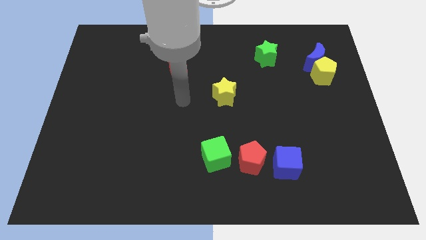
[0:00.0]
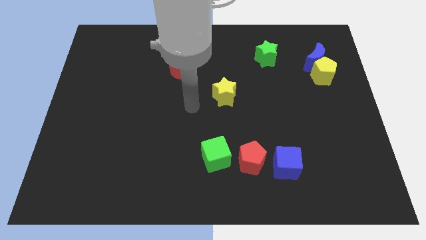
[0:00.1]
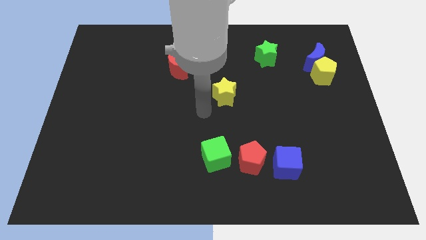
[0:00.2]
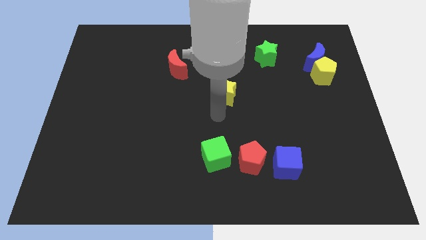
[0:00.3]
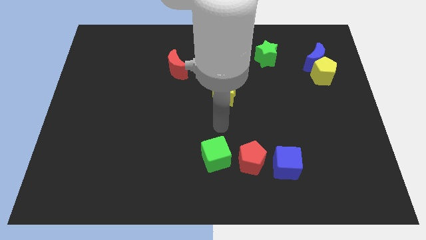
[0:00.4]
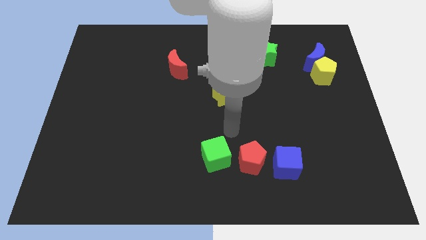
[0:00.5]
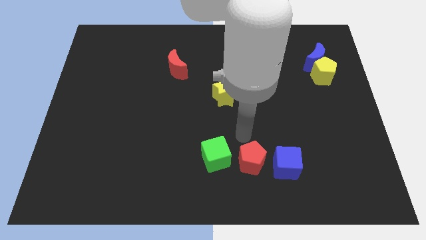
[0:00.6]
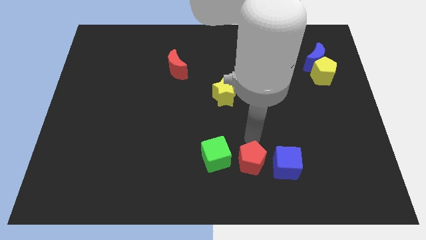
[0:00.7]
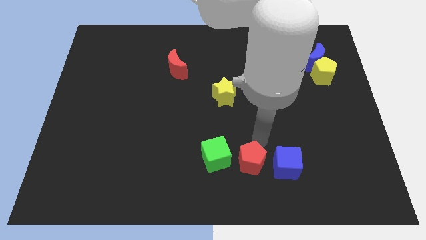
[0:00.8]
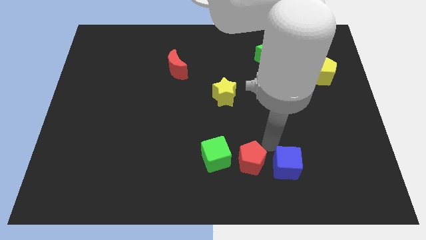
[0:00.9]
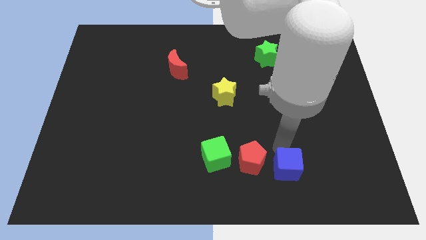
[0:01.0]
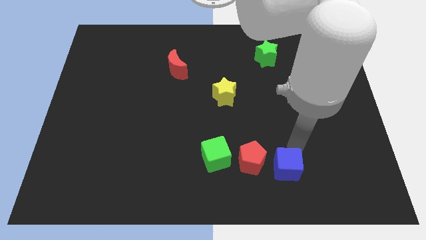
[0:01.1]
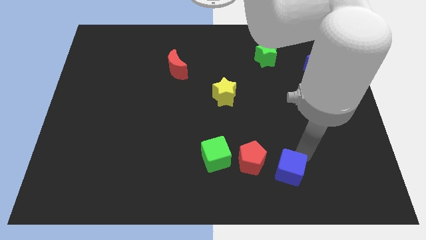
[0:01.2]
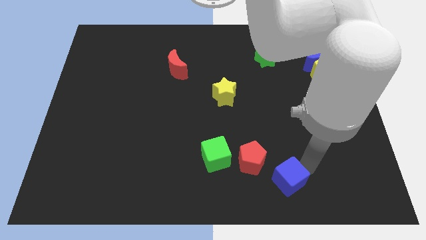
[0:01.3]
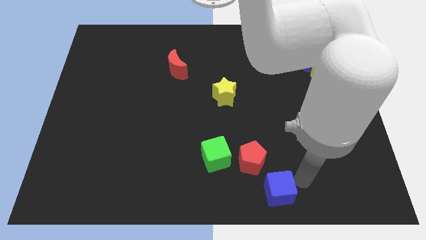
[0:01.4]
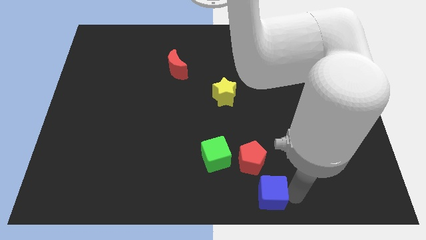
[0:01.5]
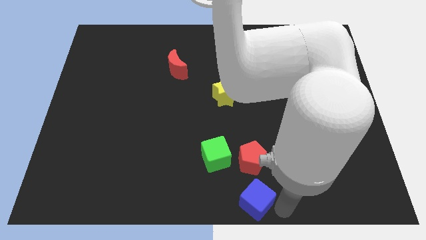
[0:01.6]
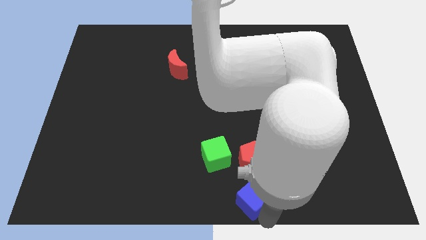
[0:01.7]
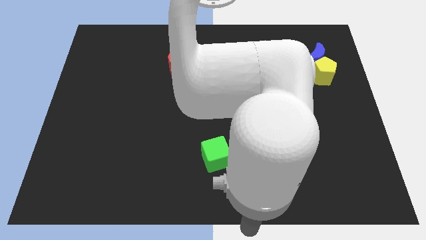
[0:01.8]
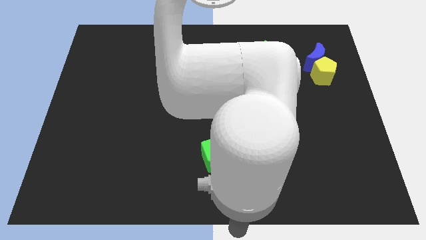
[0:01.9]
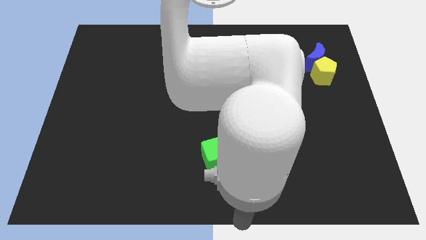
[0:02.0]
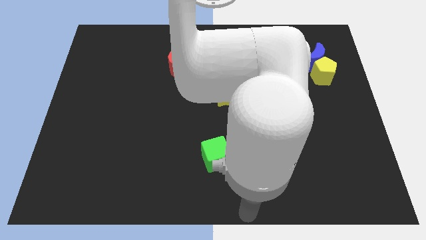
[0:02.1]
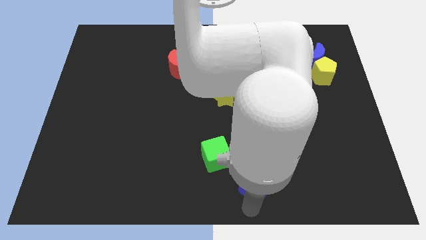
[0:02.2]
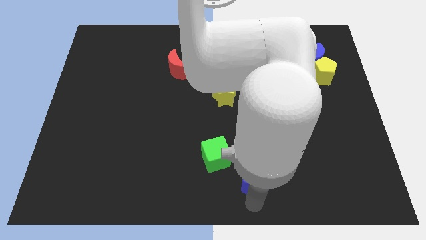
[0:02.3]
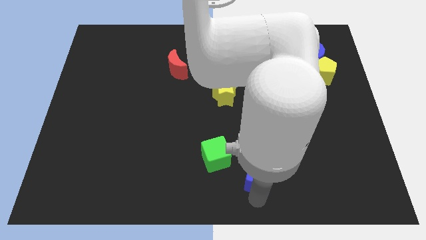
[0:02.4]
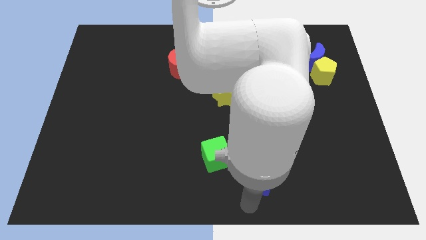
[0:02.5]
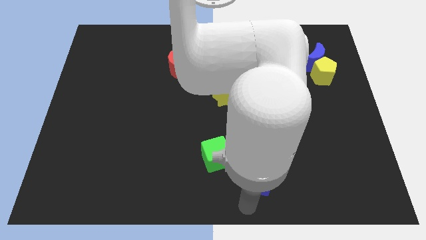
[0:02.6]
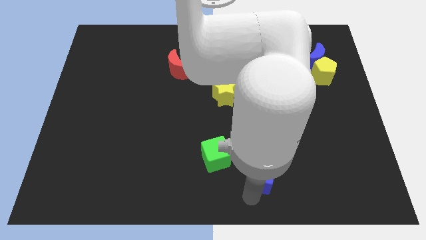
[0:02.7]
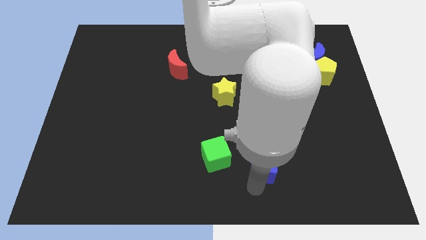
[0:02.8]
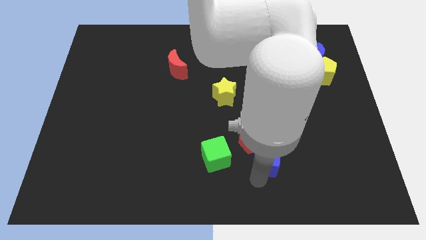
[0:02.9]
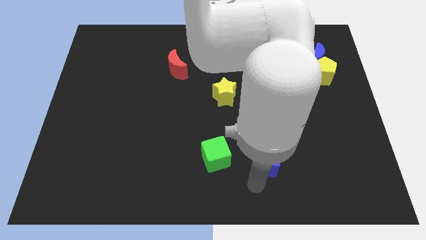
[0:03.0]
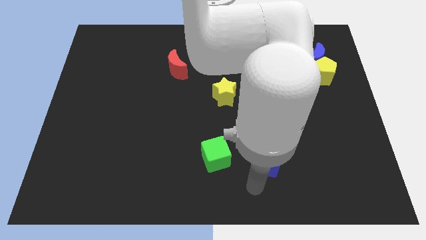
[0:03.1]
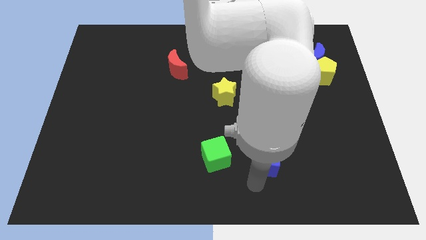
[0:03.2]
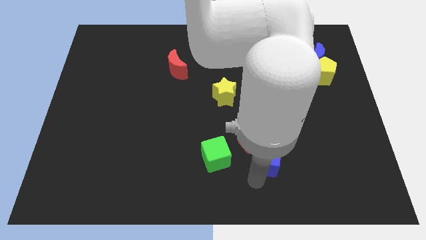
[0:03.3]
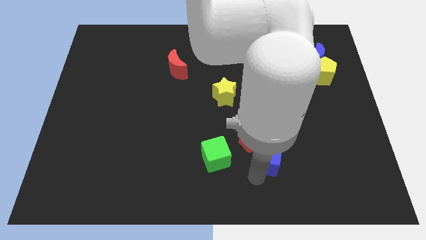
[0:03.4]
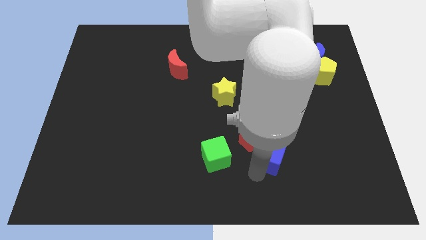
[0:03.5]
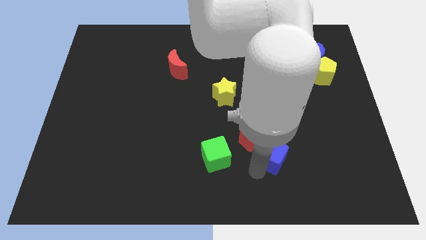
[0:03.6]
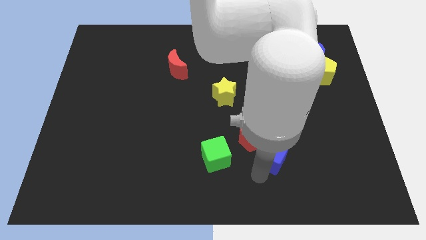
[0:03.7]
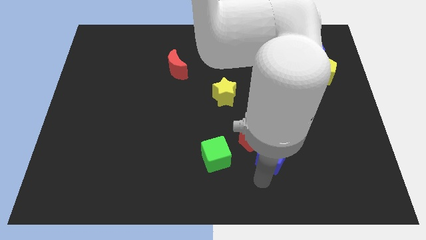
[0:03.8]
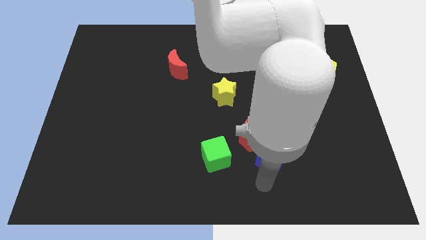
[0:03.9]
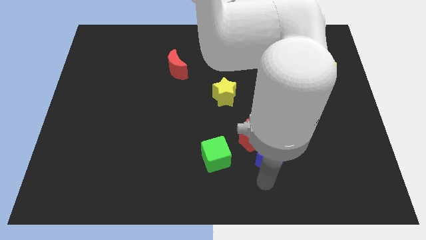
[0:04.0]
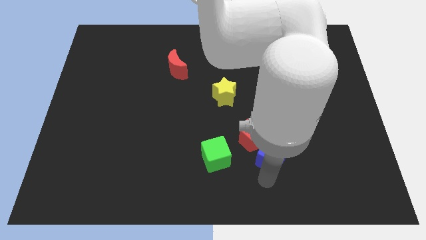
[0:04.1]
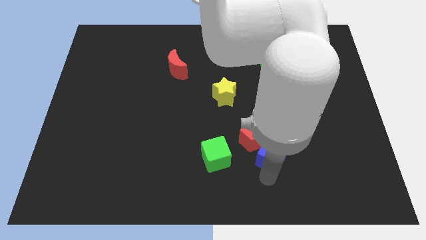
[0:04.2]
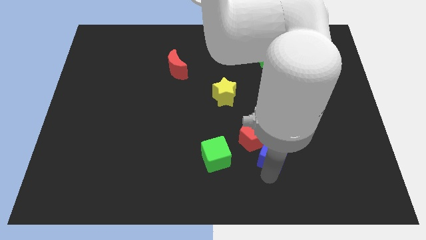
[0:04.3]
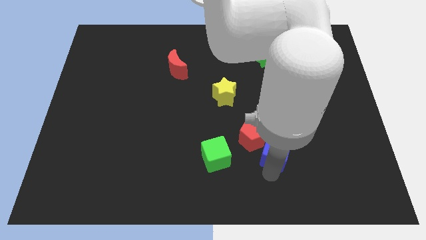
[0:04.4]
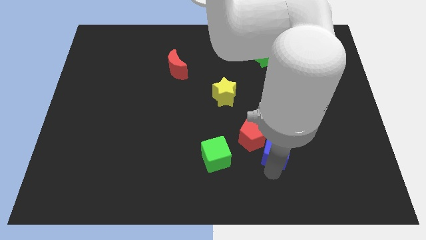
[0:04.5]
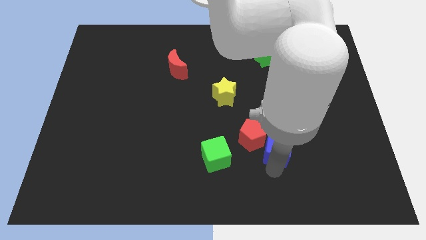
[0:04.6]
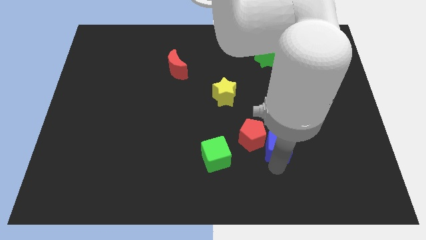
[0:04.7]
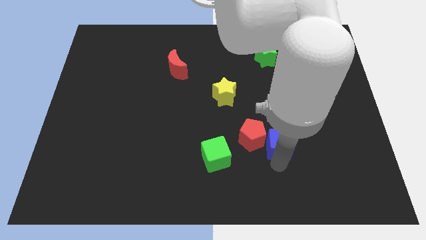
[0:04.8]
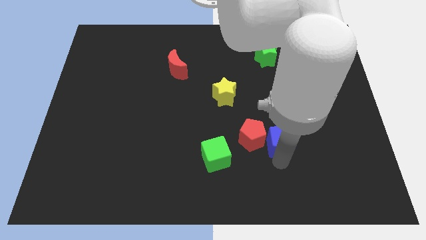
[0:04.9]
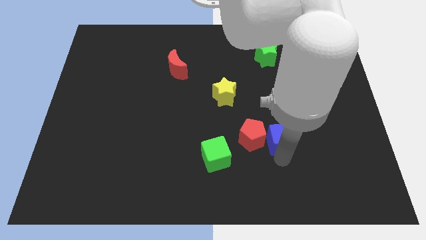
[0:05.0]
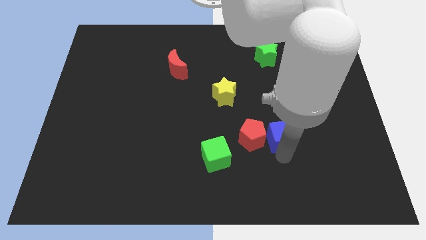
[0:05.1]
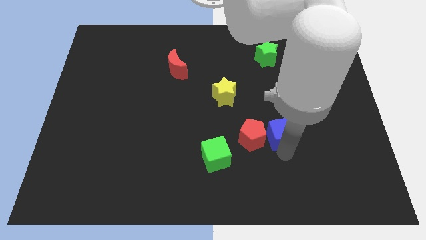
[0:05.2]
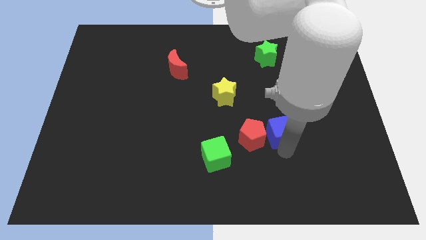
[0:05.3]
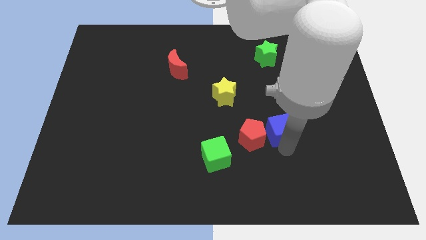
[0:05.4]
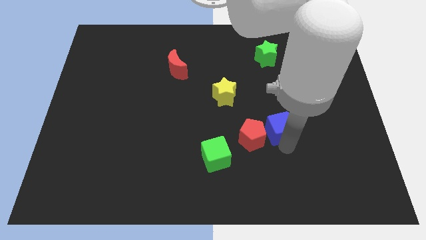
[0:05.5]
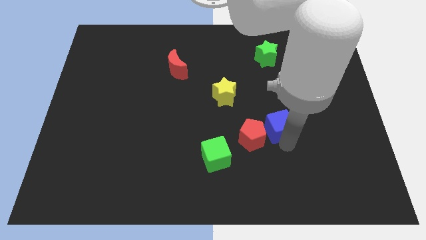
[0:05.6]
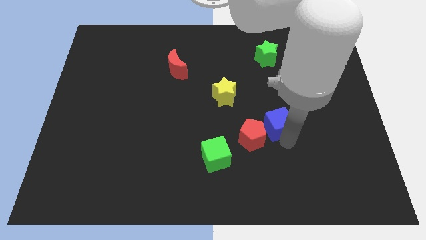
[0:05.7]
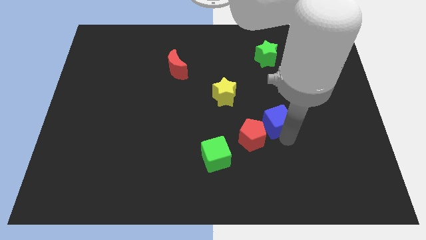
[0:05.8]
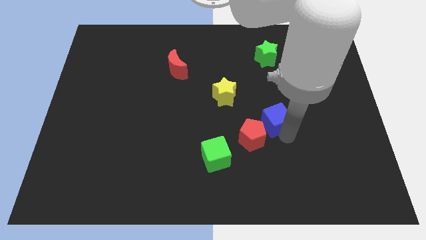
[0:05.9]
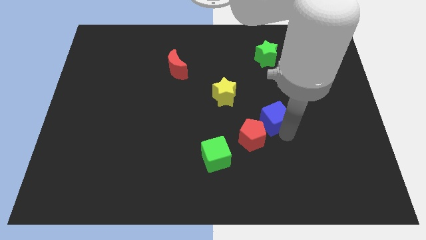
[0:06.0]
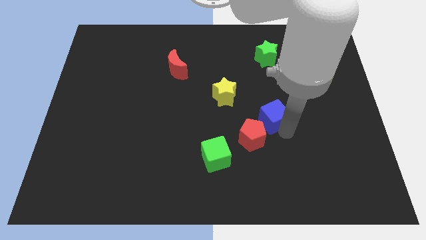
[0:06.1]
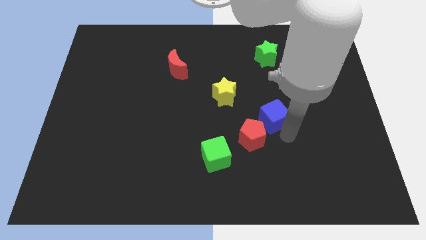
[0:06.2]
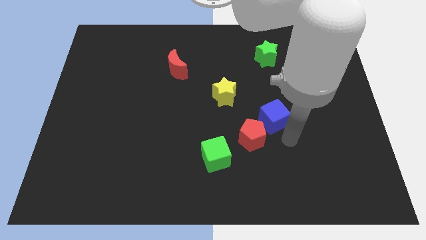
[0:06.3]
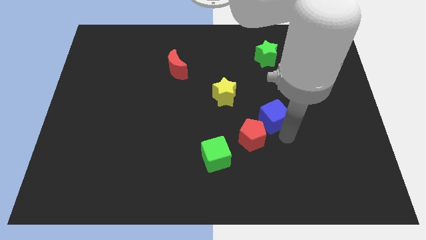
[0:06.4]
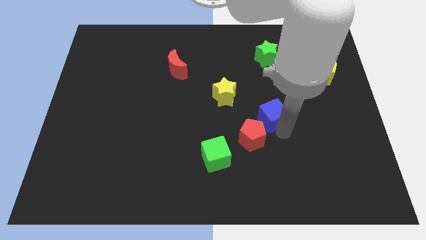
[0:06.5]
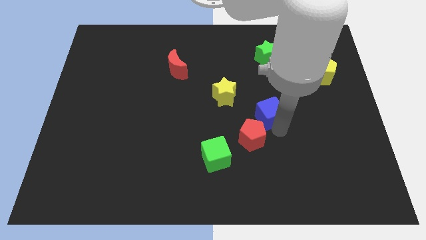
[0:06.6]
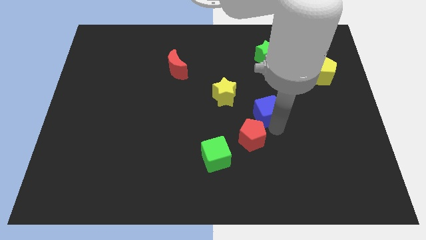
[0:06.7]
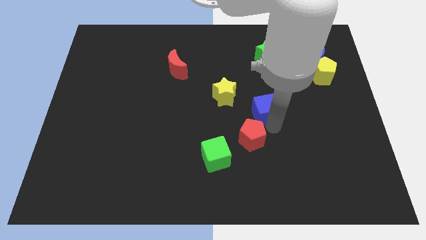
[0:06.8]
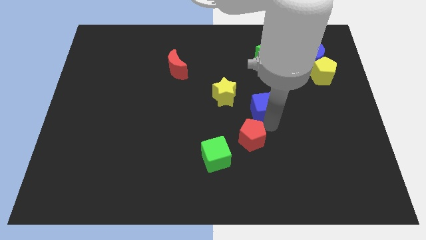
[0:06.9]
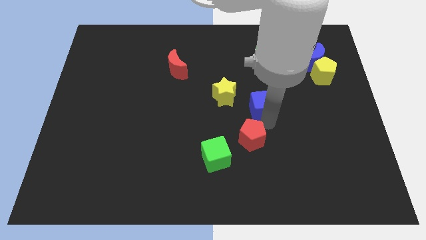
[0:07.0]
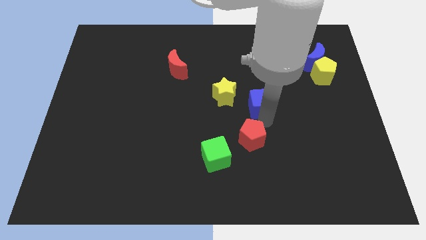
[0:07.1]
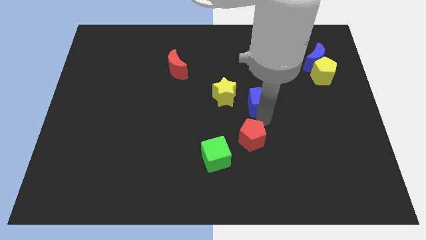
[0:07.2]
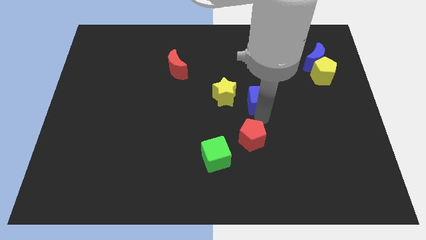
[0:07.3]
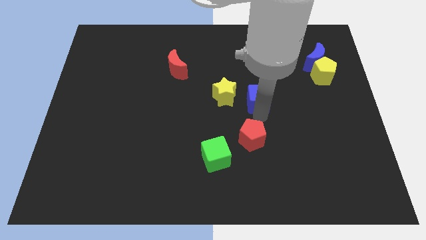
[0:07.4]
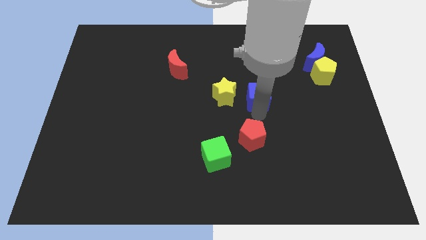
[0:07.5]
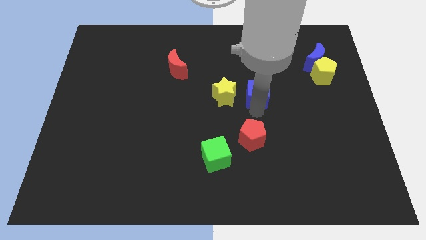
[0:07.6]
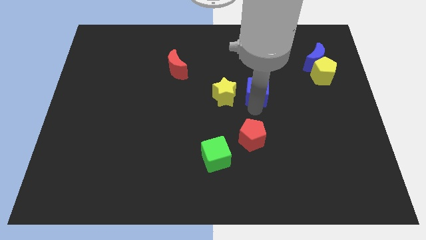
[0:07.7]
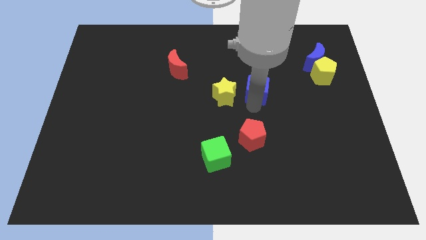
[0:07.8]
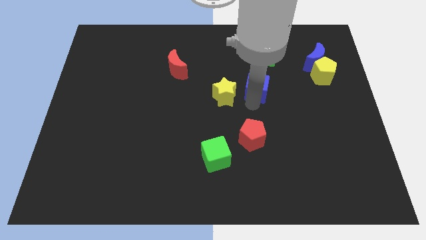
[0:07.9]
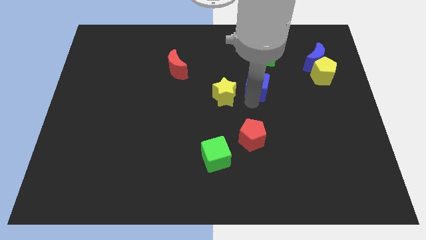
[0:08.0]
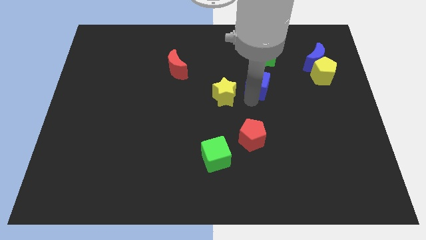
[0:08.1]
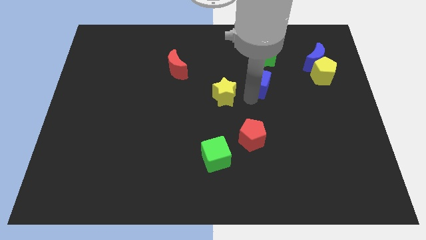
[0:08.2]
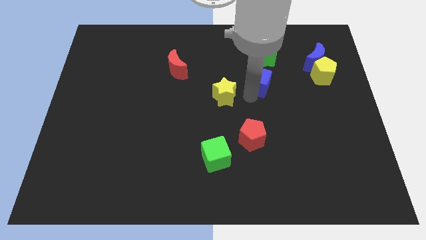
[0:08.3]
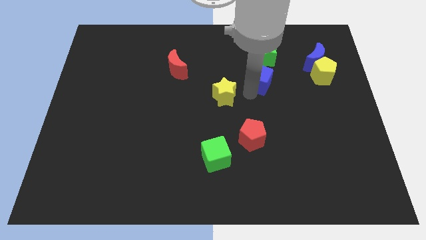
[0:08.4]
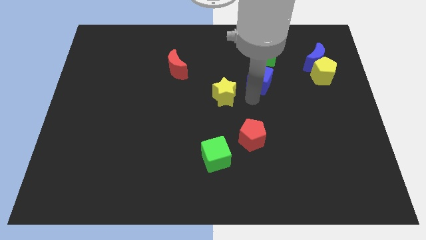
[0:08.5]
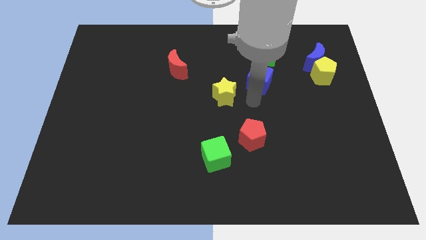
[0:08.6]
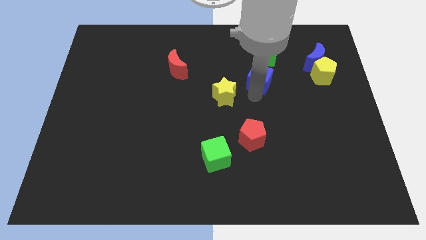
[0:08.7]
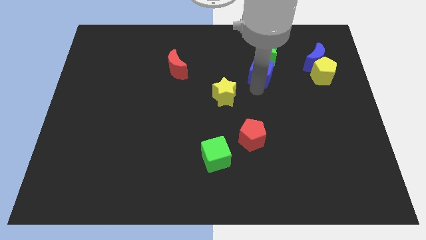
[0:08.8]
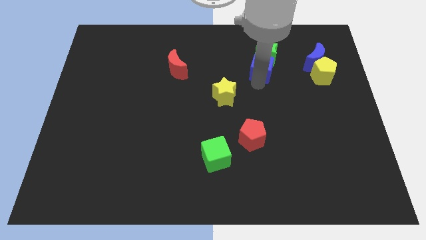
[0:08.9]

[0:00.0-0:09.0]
put the blue cube to the green star
